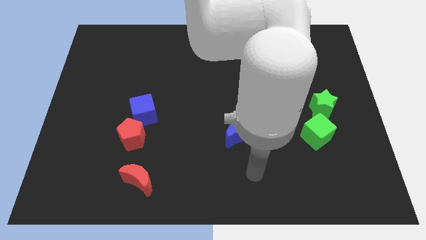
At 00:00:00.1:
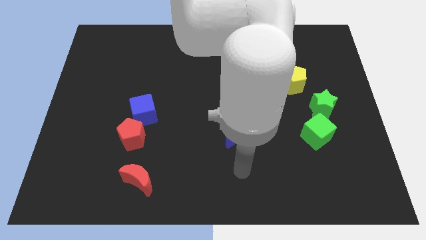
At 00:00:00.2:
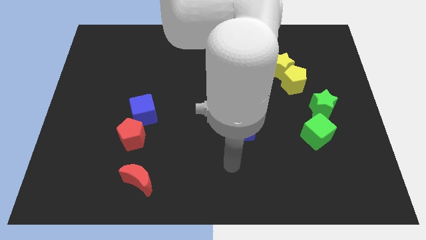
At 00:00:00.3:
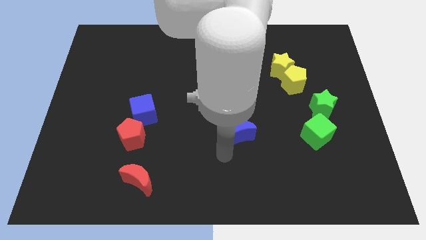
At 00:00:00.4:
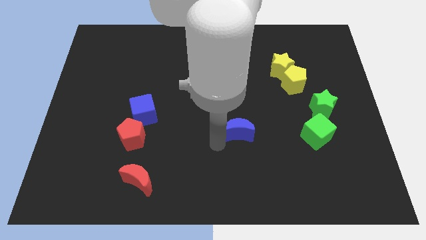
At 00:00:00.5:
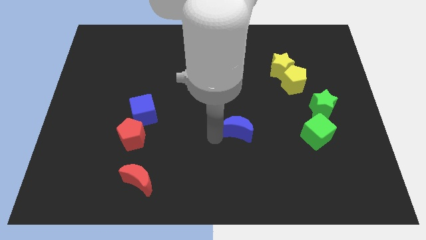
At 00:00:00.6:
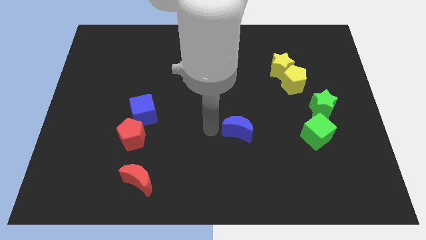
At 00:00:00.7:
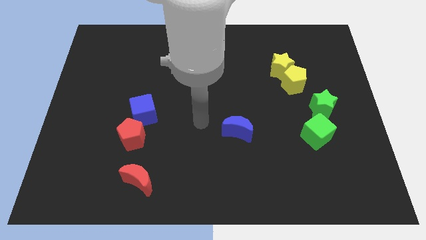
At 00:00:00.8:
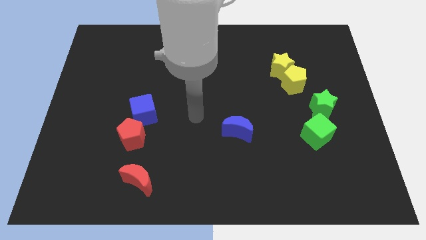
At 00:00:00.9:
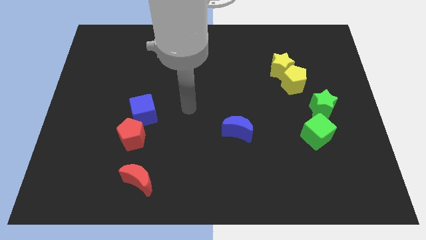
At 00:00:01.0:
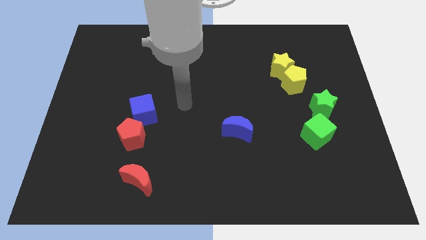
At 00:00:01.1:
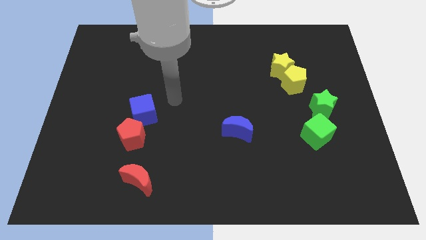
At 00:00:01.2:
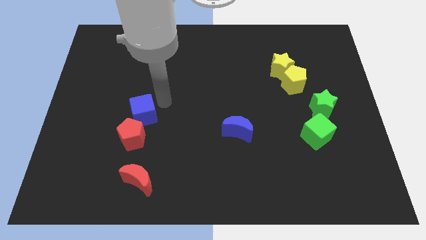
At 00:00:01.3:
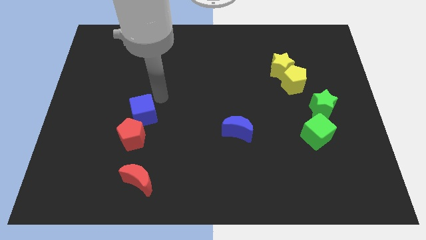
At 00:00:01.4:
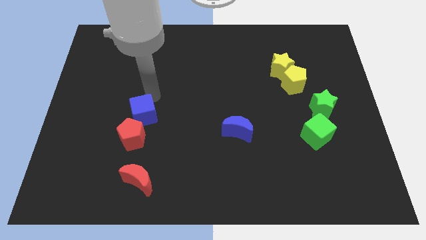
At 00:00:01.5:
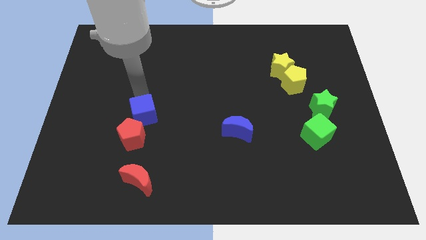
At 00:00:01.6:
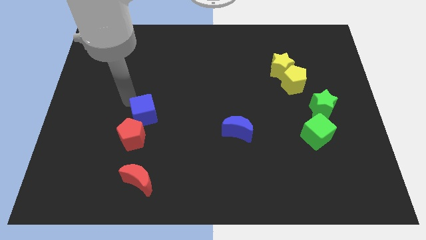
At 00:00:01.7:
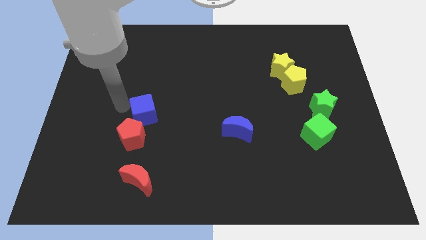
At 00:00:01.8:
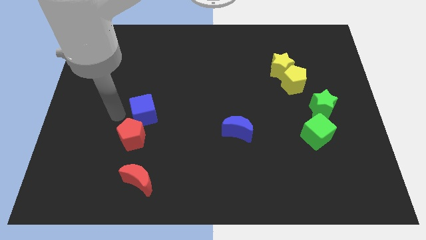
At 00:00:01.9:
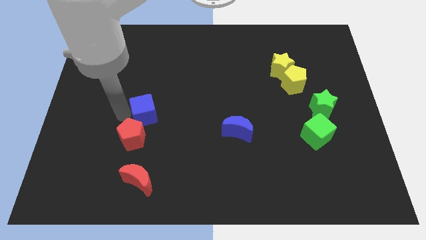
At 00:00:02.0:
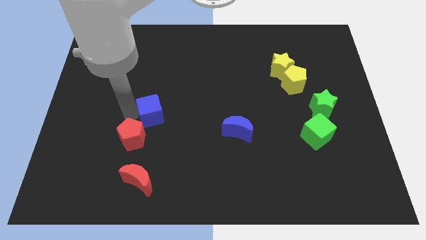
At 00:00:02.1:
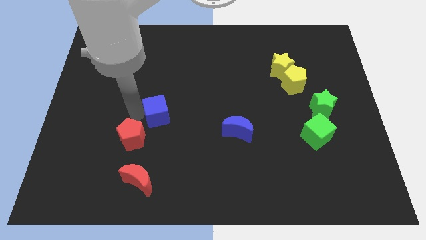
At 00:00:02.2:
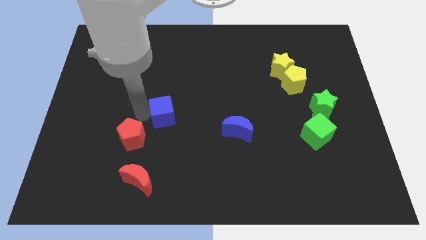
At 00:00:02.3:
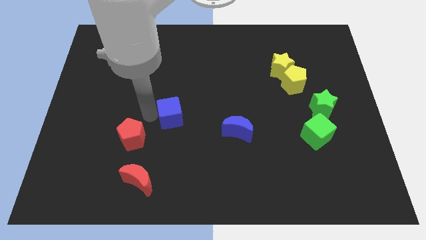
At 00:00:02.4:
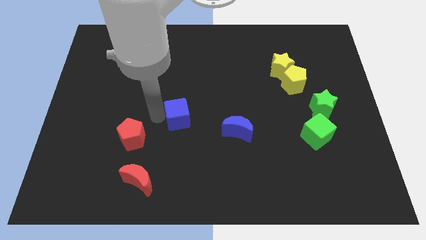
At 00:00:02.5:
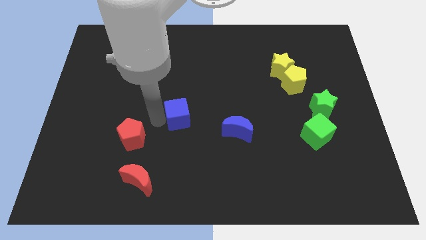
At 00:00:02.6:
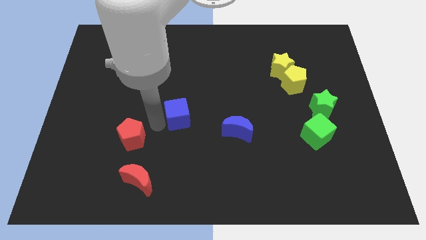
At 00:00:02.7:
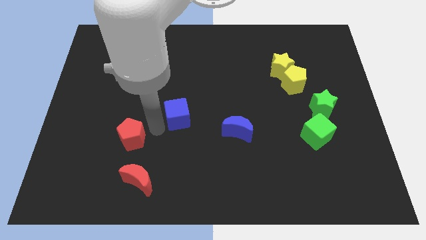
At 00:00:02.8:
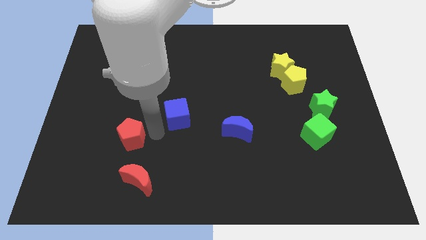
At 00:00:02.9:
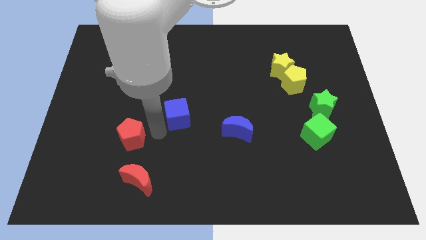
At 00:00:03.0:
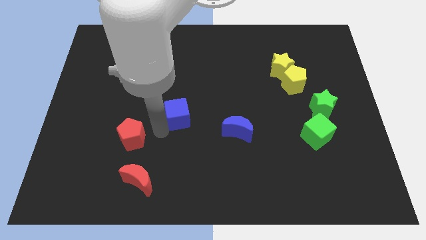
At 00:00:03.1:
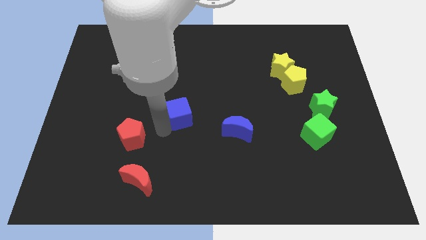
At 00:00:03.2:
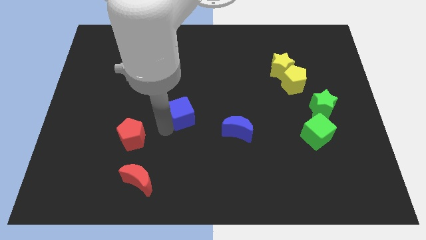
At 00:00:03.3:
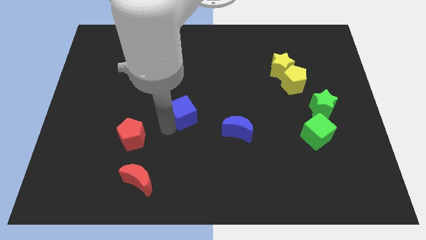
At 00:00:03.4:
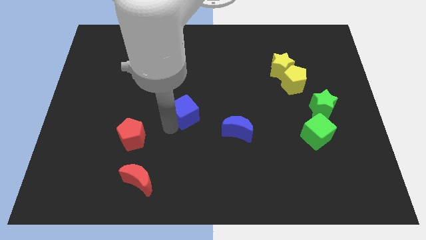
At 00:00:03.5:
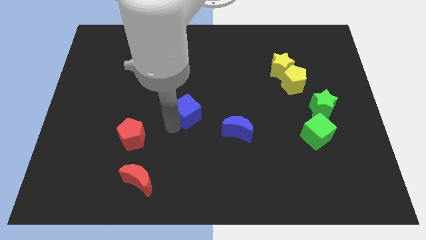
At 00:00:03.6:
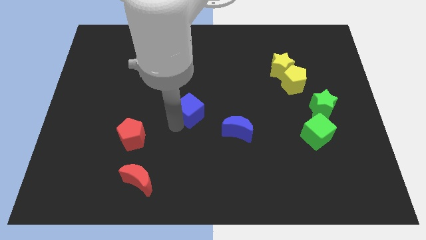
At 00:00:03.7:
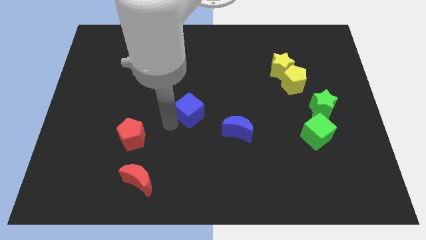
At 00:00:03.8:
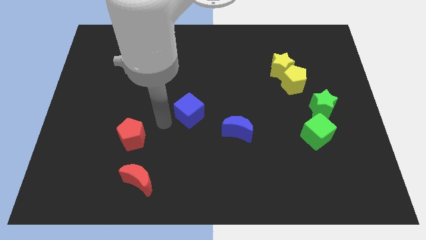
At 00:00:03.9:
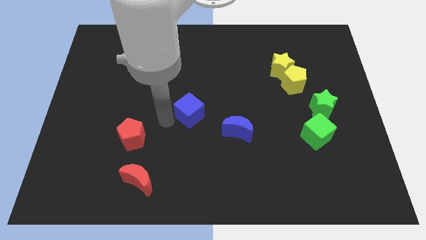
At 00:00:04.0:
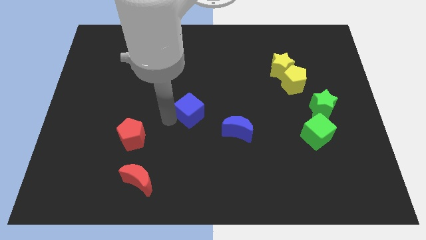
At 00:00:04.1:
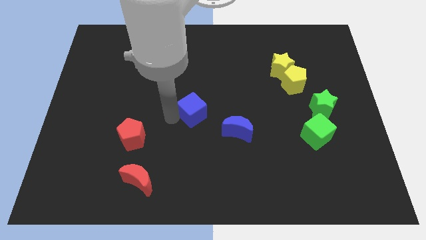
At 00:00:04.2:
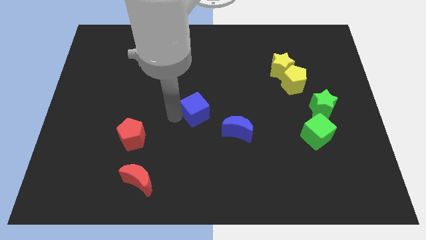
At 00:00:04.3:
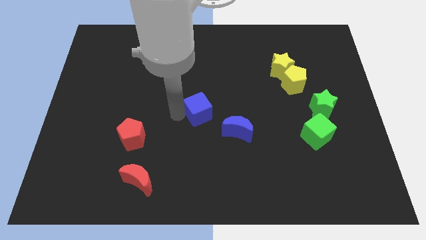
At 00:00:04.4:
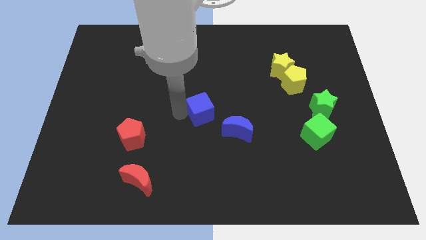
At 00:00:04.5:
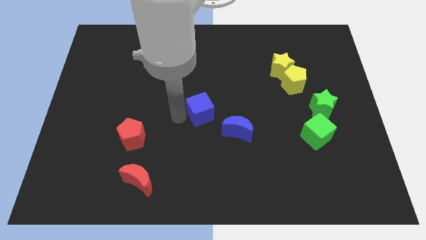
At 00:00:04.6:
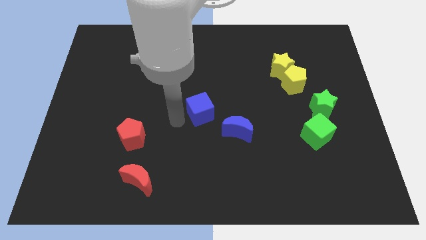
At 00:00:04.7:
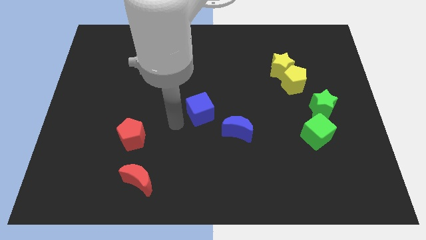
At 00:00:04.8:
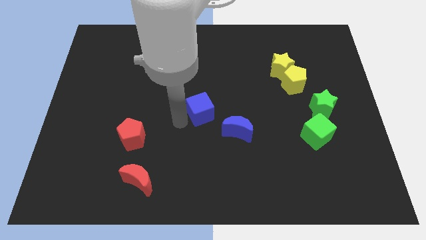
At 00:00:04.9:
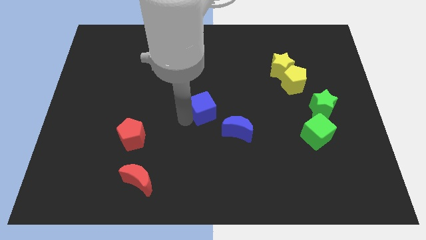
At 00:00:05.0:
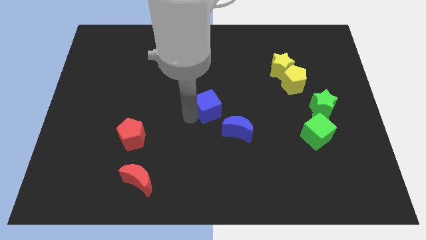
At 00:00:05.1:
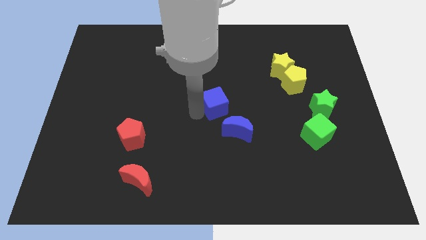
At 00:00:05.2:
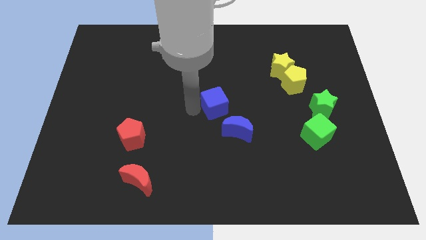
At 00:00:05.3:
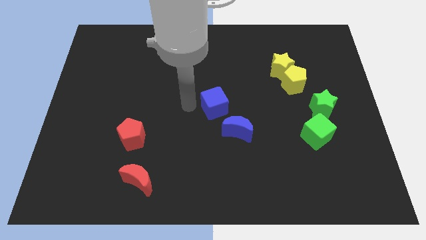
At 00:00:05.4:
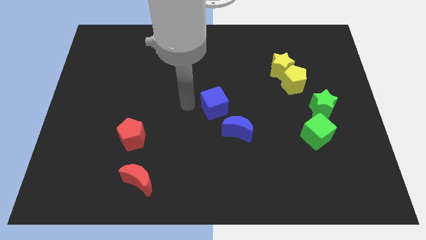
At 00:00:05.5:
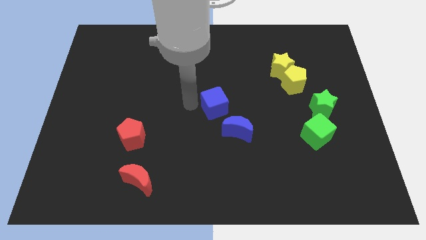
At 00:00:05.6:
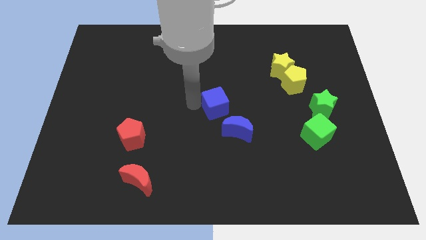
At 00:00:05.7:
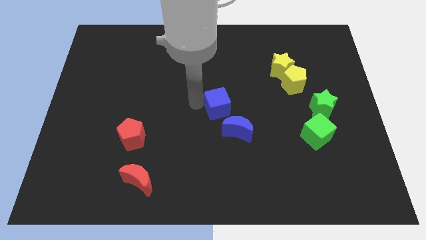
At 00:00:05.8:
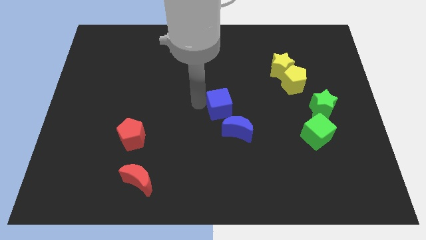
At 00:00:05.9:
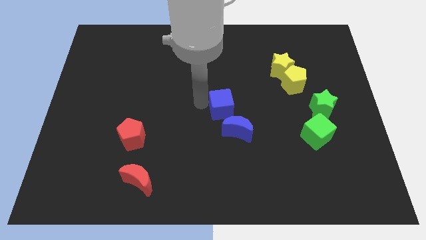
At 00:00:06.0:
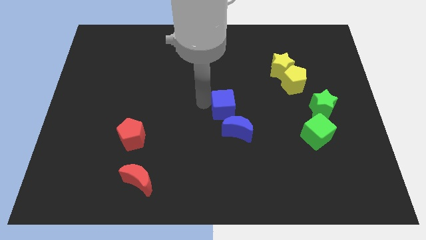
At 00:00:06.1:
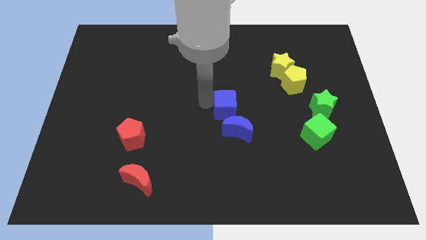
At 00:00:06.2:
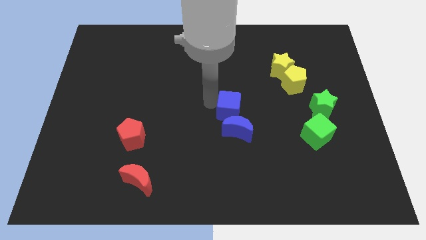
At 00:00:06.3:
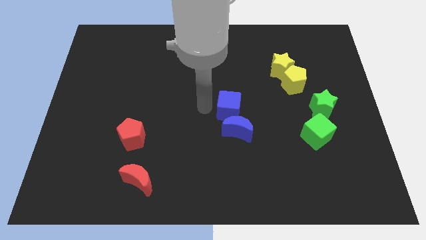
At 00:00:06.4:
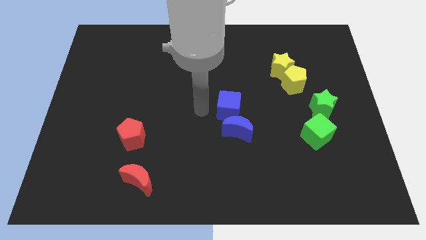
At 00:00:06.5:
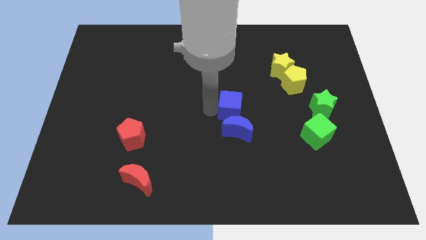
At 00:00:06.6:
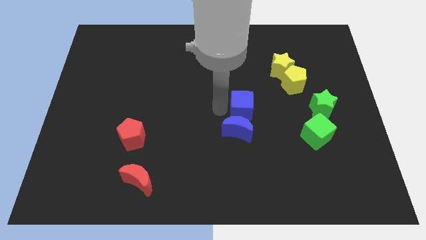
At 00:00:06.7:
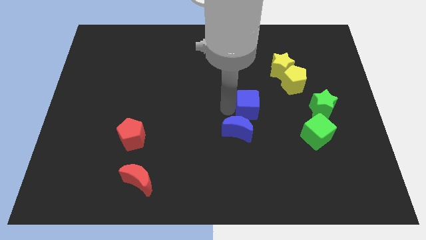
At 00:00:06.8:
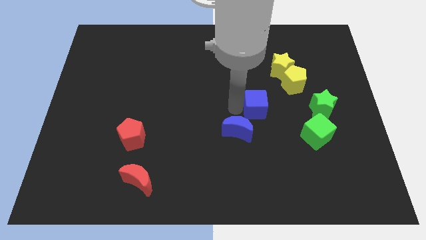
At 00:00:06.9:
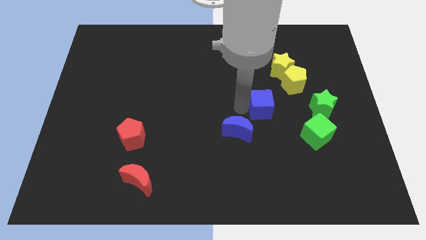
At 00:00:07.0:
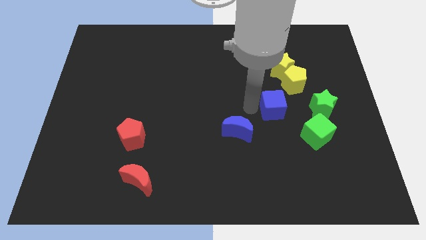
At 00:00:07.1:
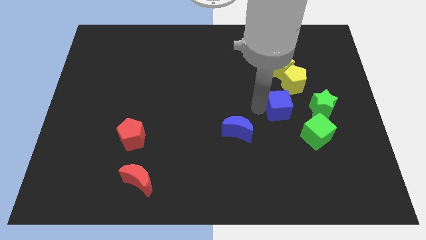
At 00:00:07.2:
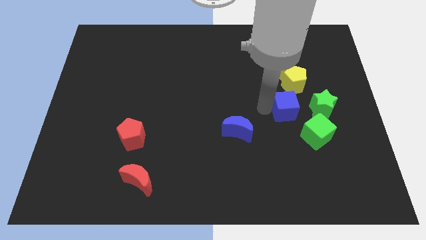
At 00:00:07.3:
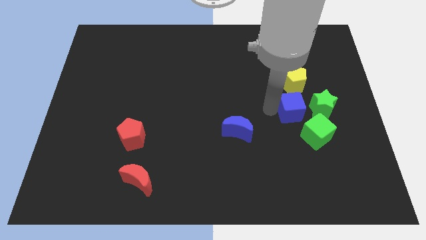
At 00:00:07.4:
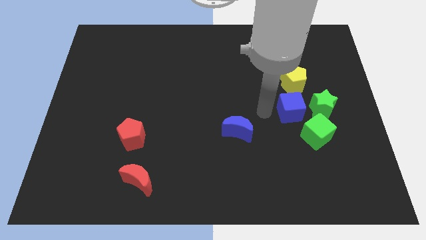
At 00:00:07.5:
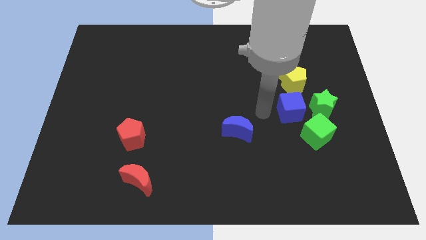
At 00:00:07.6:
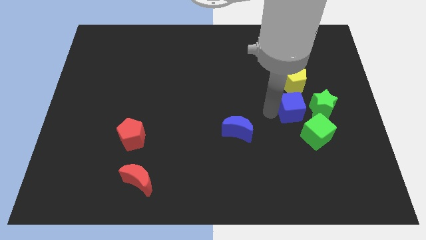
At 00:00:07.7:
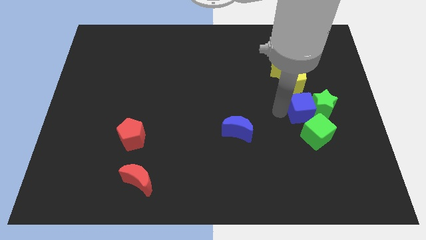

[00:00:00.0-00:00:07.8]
move the blue cube towards the green star
